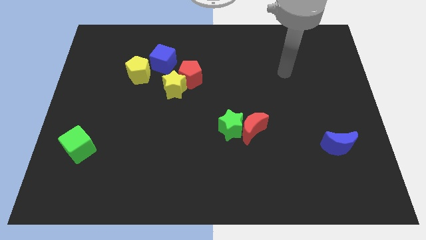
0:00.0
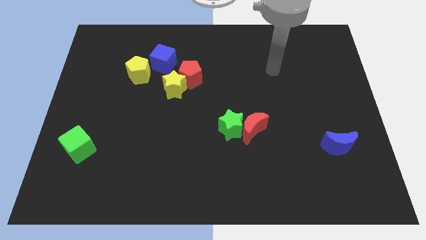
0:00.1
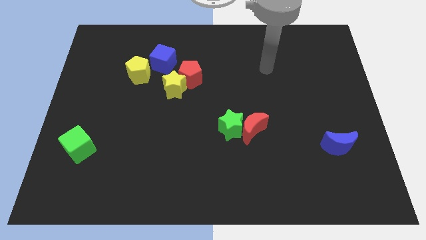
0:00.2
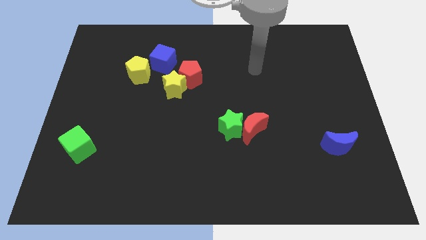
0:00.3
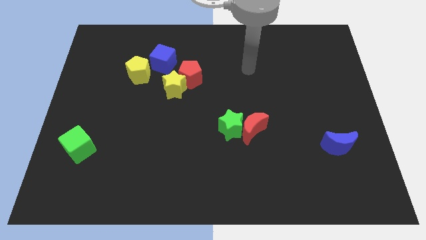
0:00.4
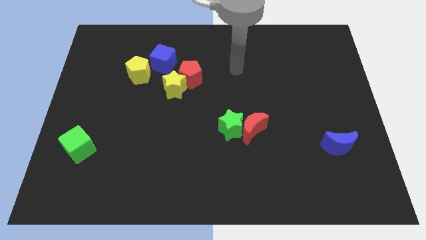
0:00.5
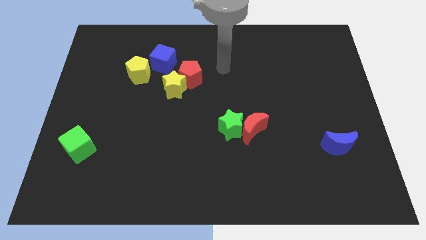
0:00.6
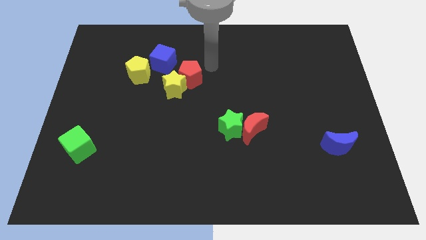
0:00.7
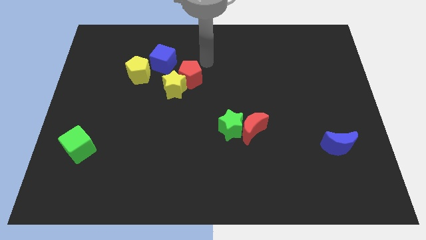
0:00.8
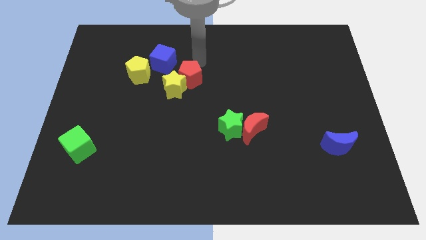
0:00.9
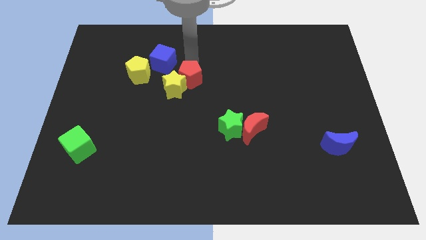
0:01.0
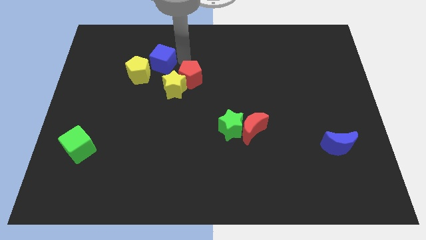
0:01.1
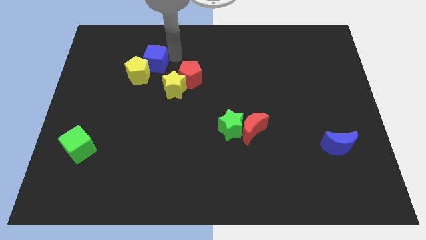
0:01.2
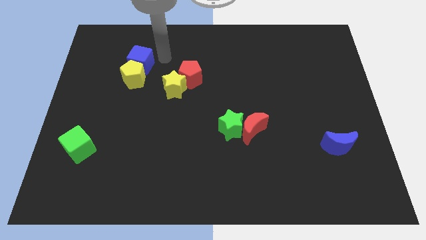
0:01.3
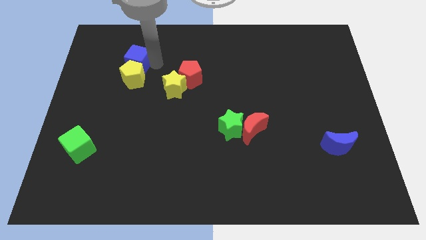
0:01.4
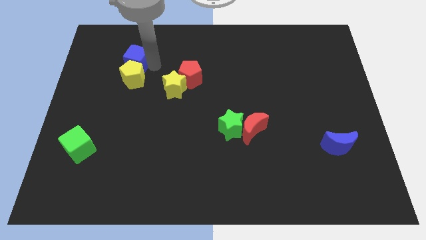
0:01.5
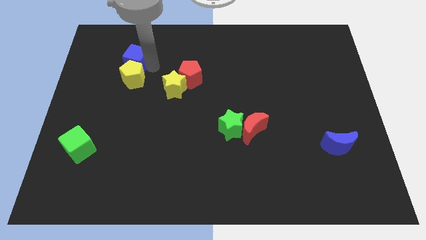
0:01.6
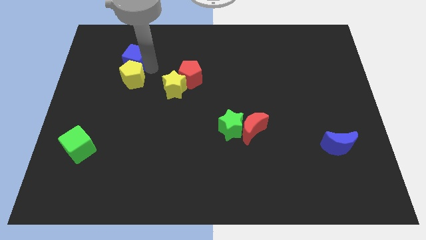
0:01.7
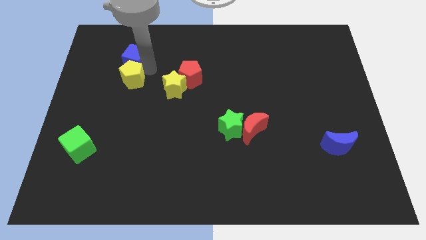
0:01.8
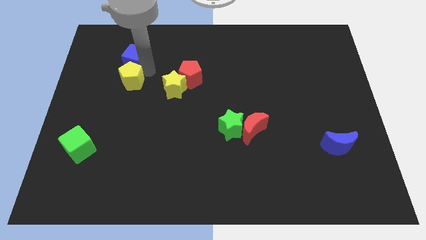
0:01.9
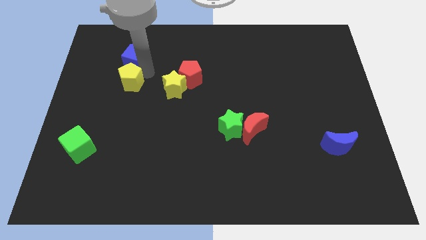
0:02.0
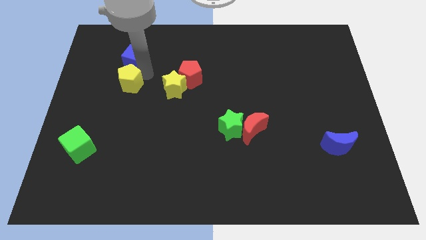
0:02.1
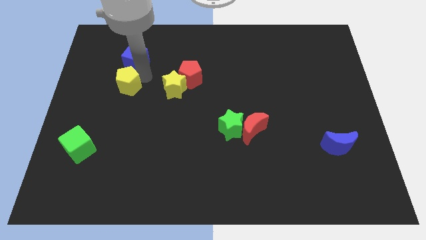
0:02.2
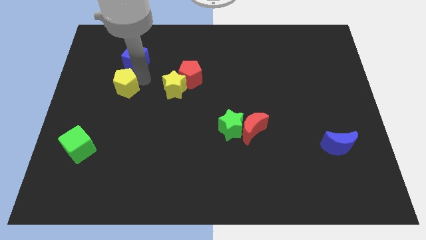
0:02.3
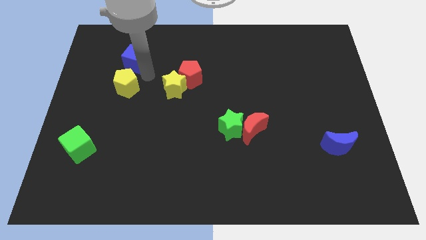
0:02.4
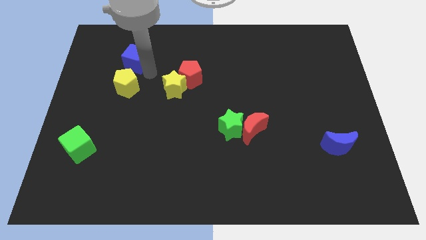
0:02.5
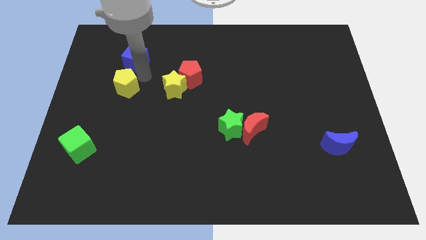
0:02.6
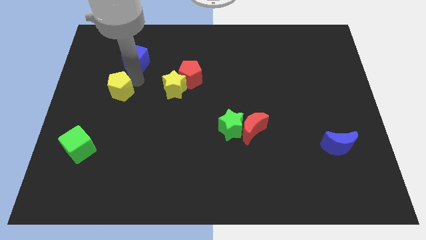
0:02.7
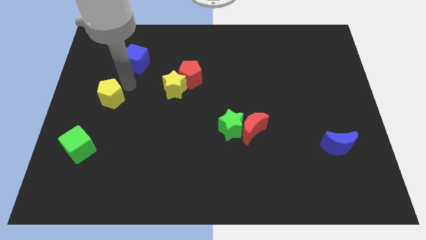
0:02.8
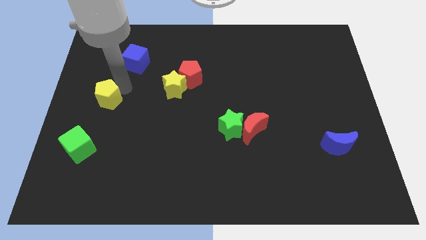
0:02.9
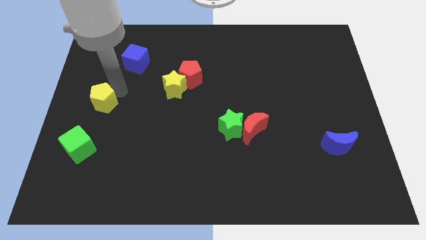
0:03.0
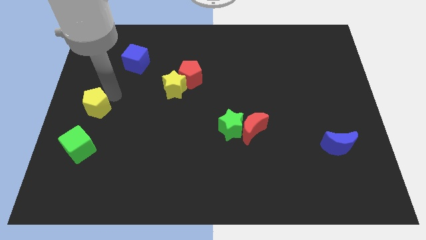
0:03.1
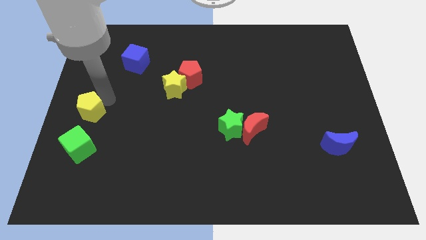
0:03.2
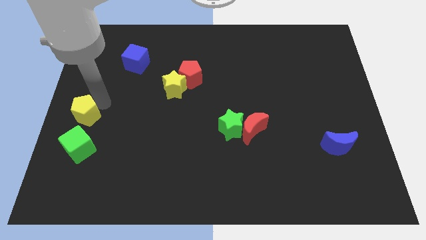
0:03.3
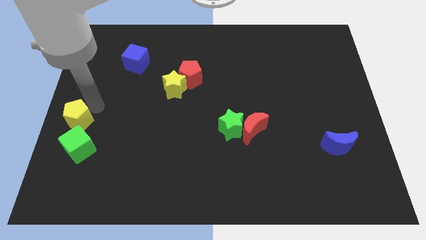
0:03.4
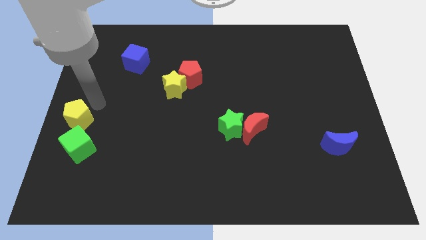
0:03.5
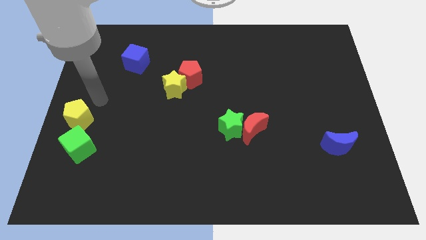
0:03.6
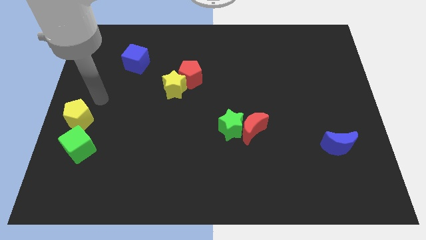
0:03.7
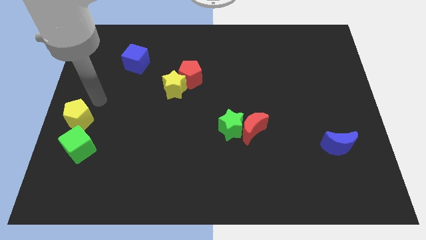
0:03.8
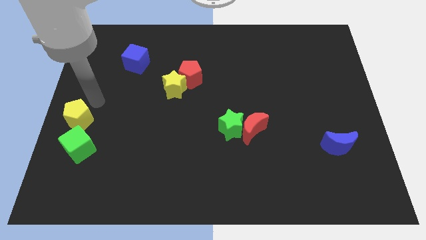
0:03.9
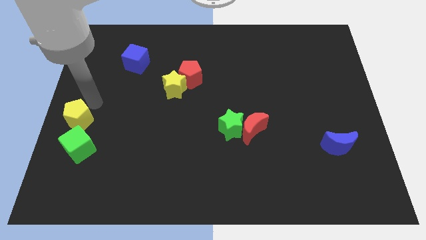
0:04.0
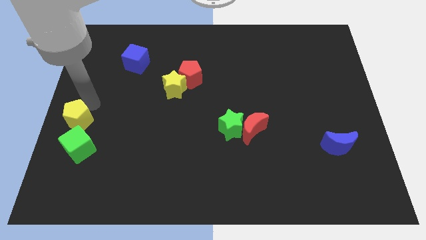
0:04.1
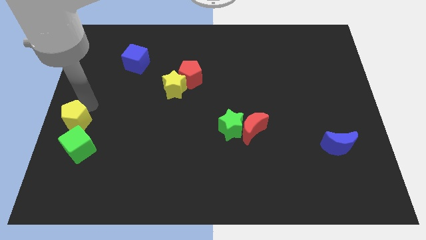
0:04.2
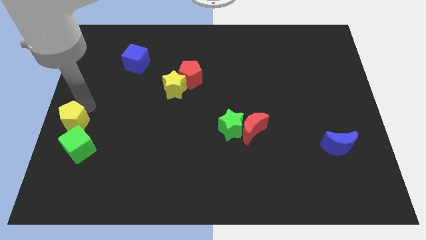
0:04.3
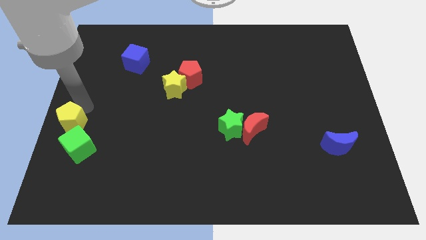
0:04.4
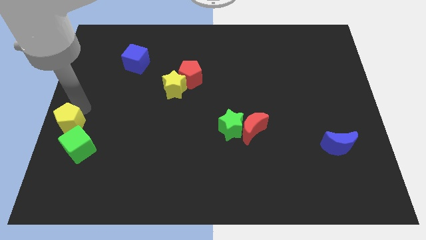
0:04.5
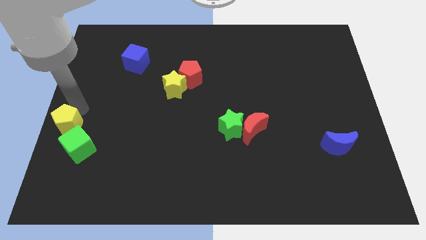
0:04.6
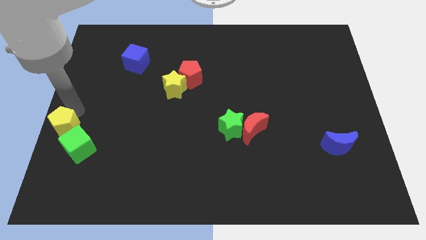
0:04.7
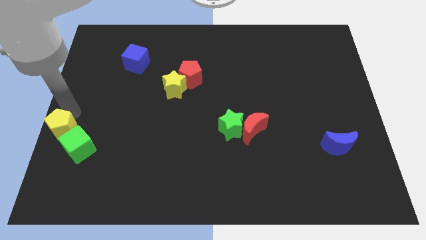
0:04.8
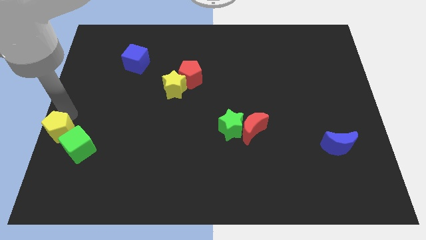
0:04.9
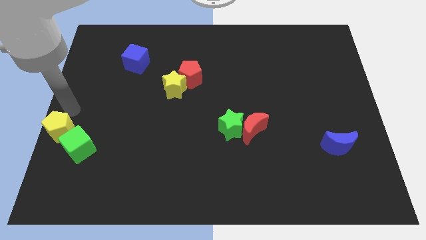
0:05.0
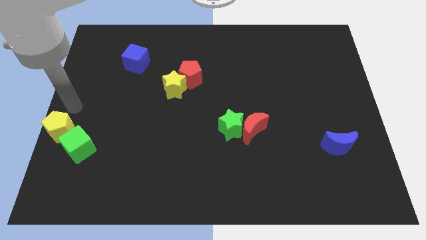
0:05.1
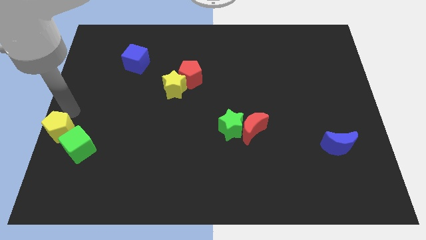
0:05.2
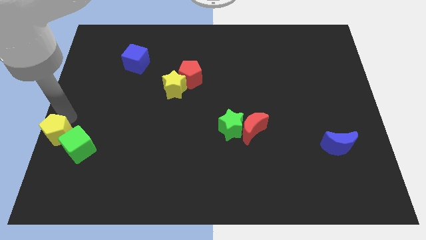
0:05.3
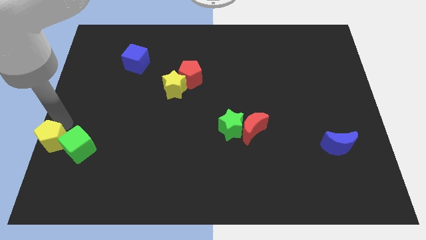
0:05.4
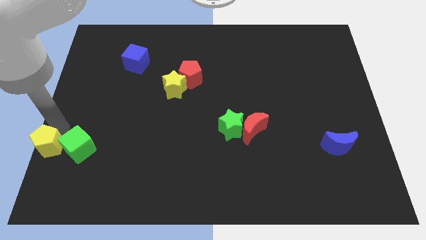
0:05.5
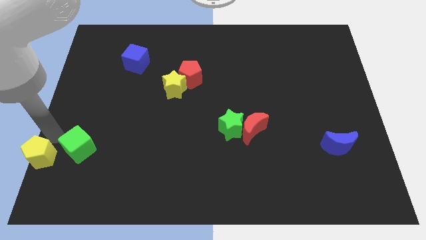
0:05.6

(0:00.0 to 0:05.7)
slide the yellow pentagon to the lower left corner

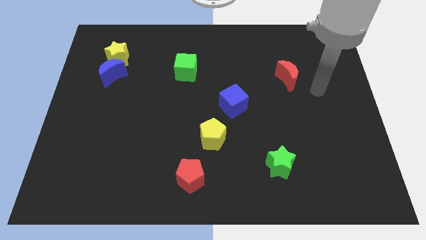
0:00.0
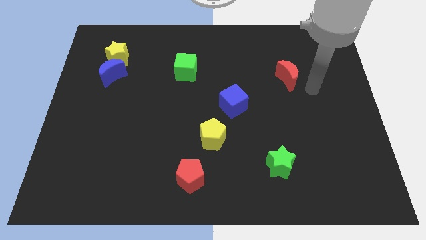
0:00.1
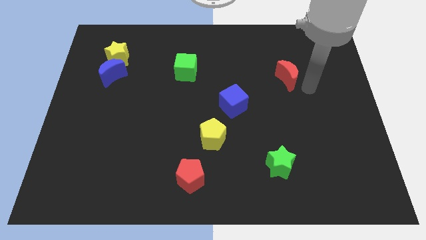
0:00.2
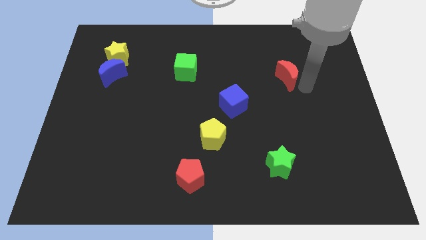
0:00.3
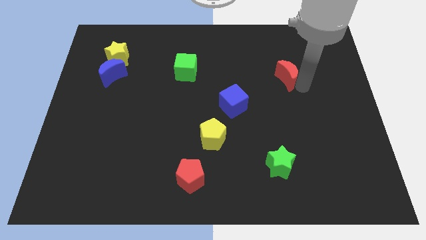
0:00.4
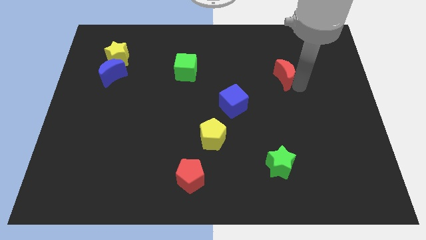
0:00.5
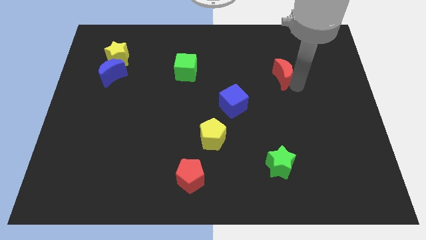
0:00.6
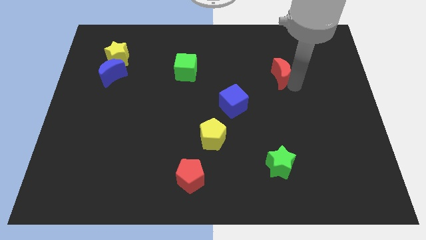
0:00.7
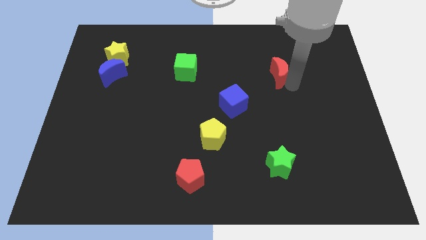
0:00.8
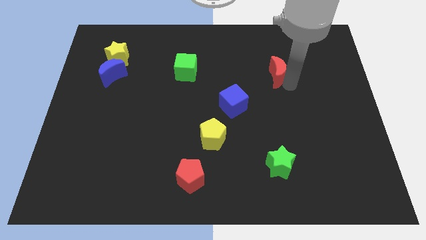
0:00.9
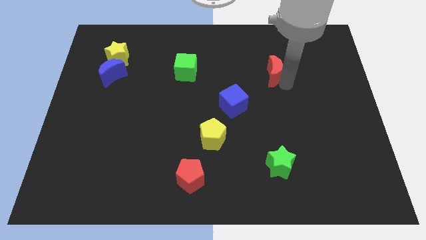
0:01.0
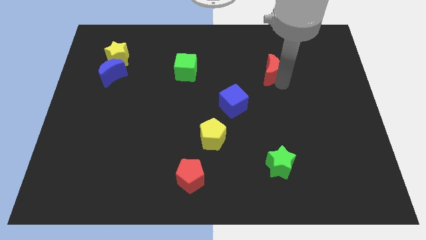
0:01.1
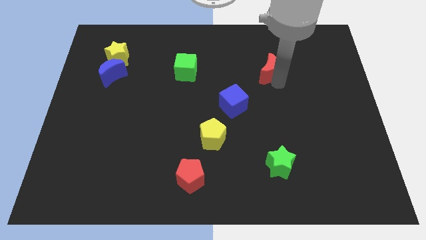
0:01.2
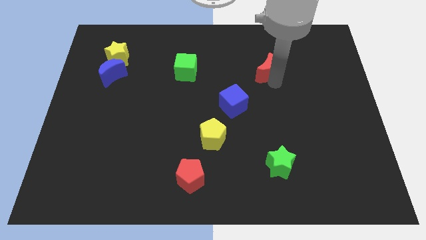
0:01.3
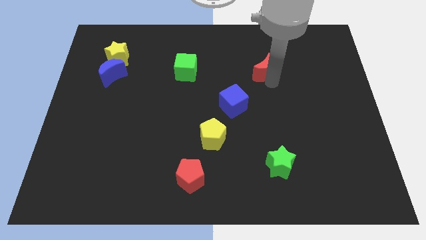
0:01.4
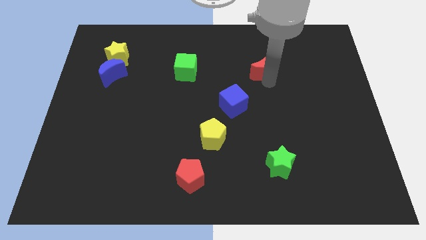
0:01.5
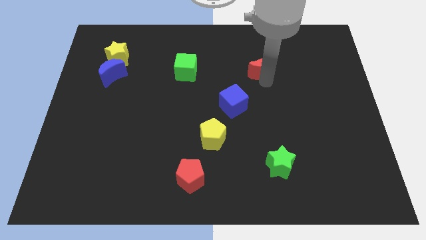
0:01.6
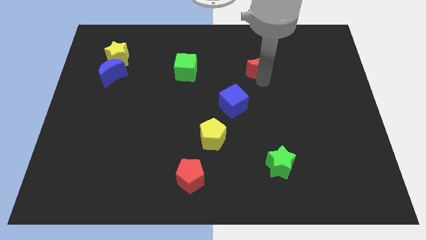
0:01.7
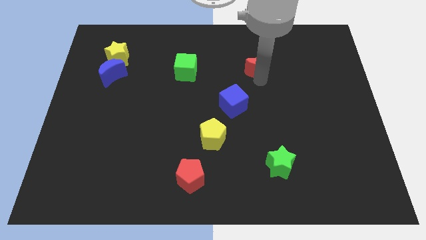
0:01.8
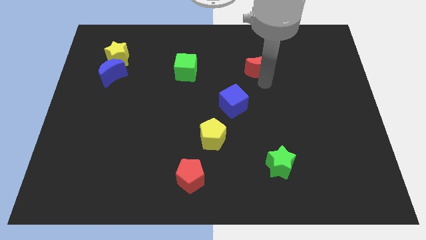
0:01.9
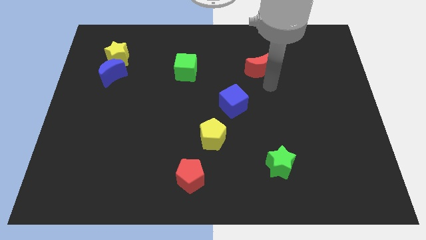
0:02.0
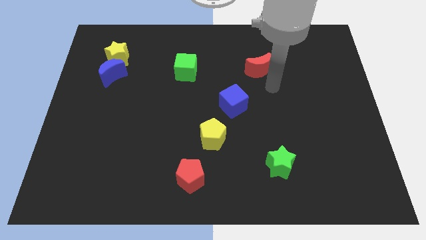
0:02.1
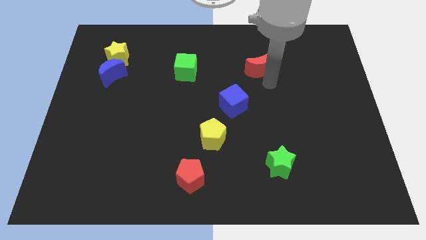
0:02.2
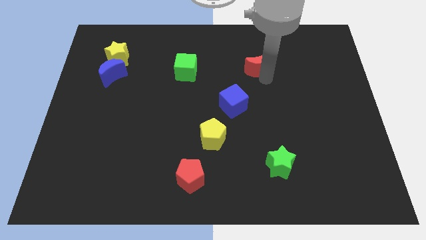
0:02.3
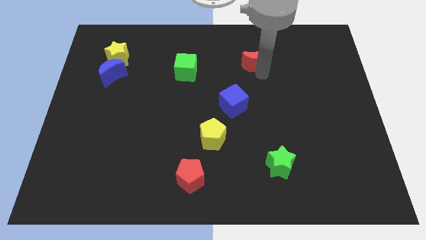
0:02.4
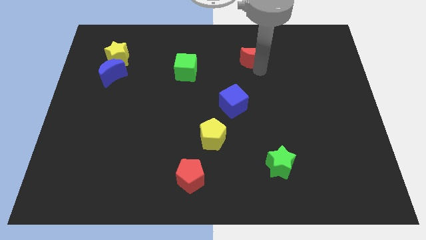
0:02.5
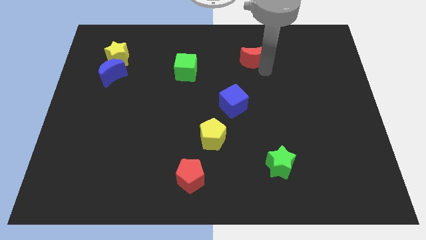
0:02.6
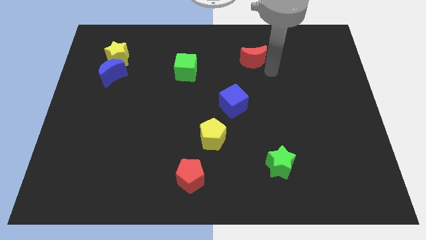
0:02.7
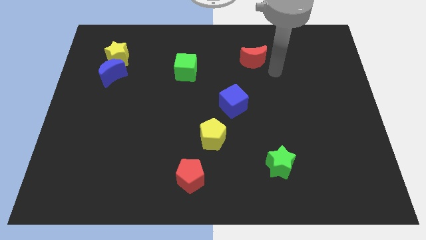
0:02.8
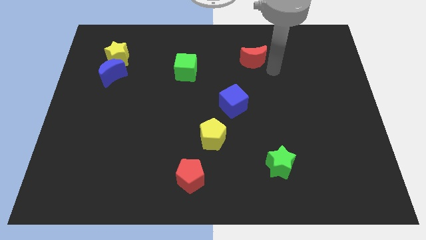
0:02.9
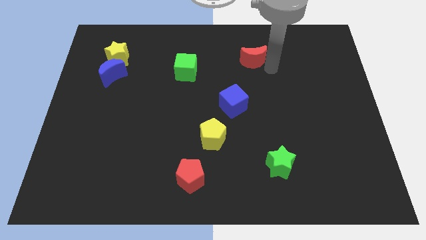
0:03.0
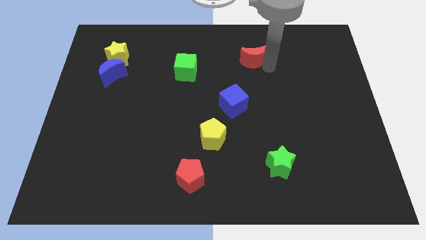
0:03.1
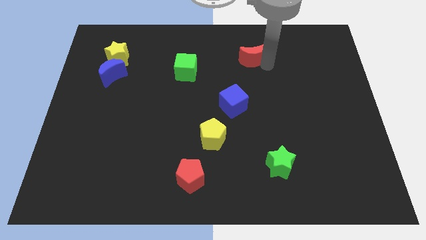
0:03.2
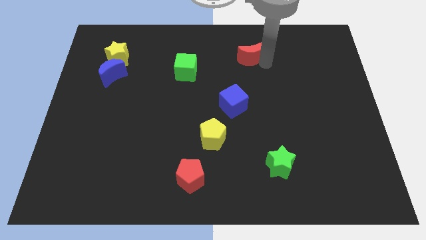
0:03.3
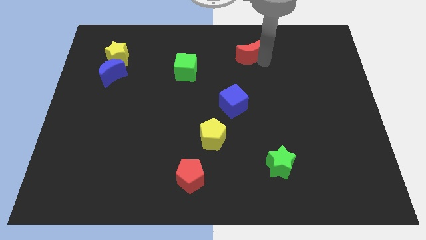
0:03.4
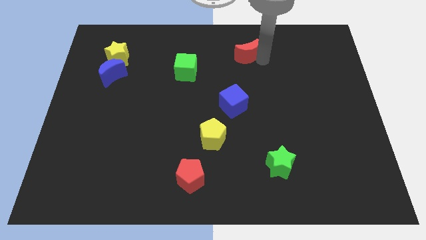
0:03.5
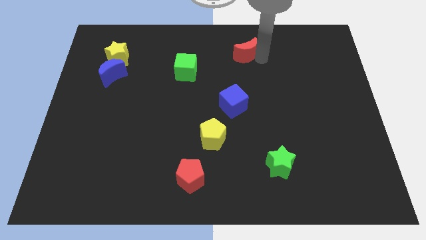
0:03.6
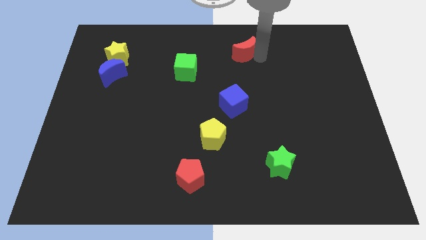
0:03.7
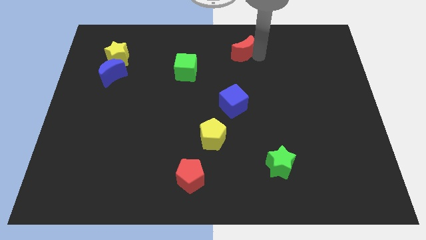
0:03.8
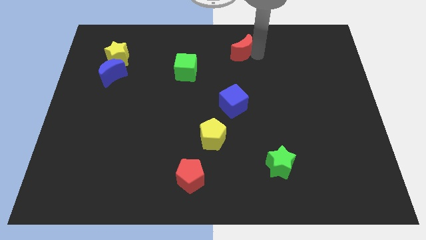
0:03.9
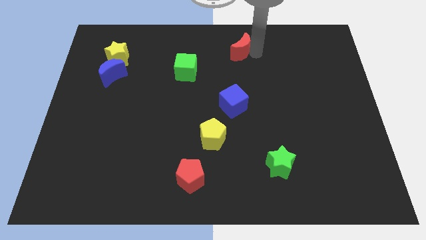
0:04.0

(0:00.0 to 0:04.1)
move the red moon to the top
